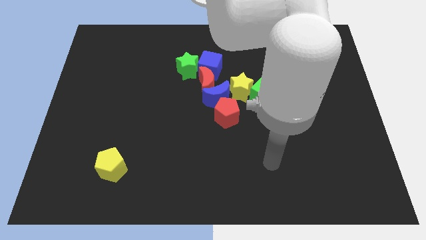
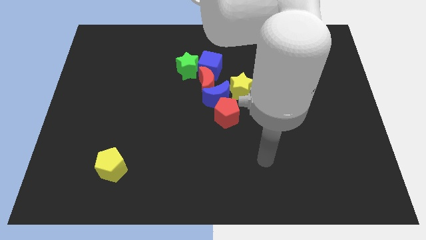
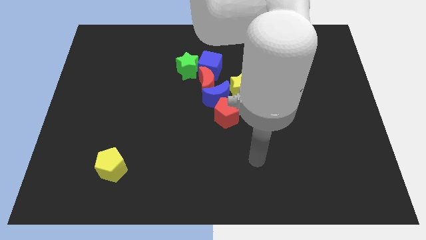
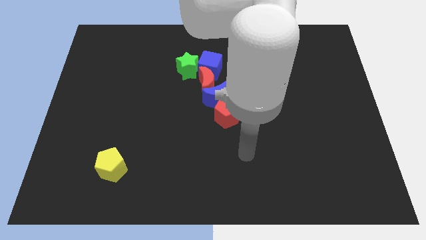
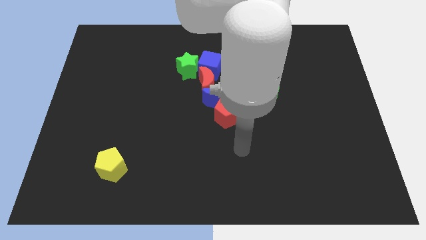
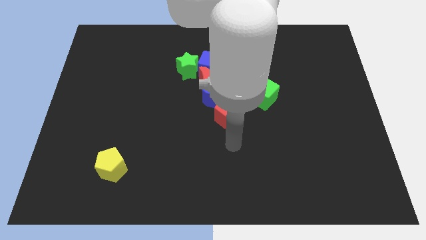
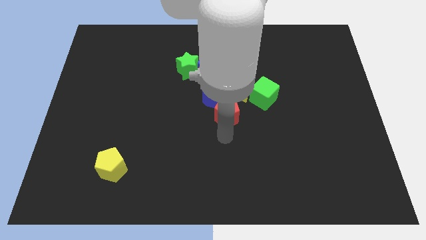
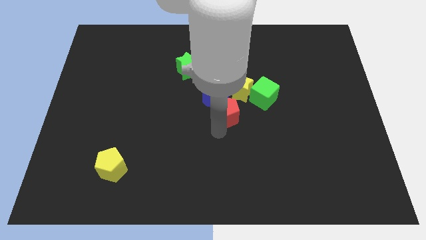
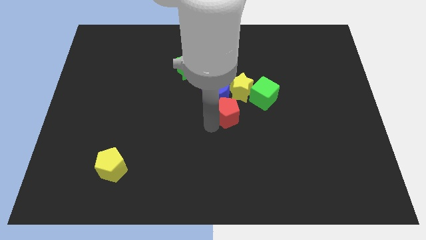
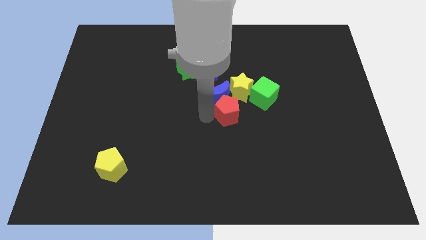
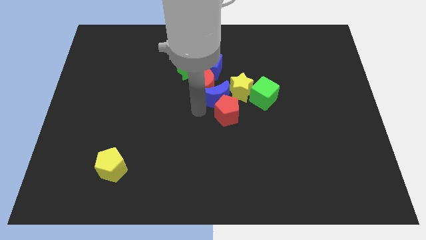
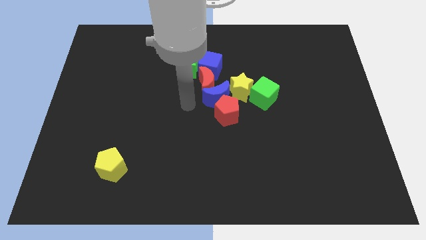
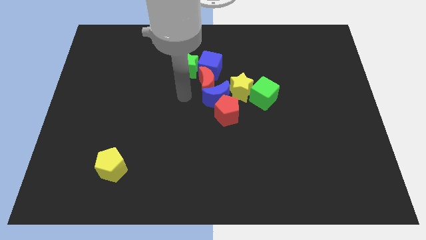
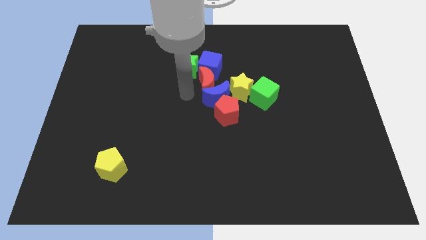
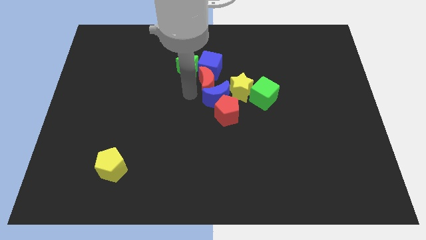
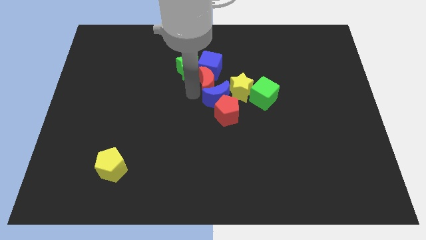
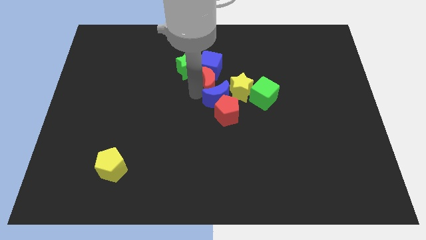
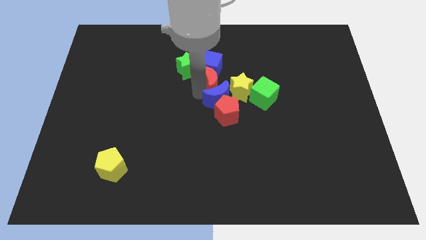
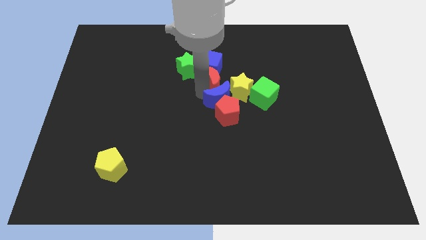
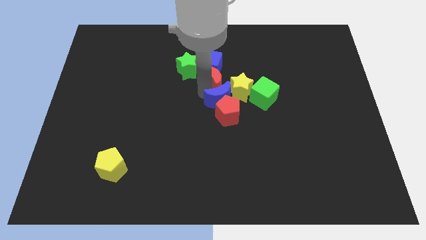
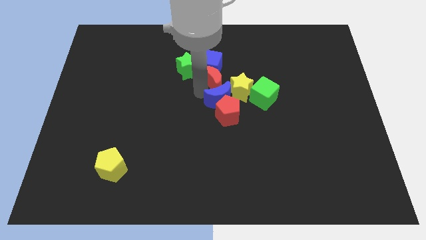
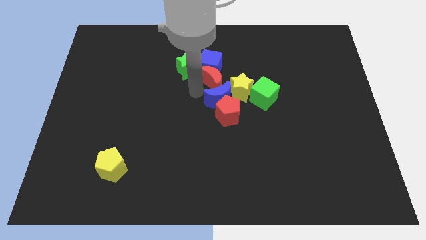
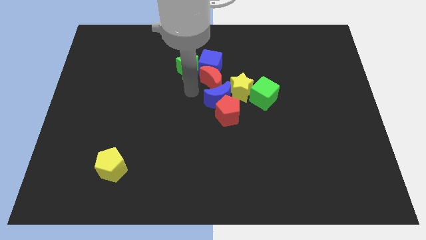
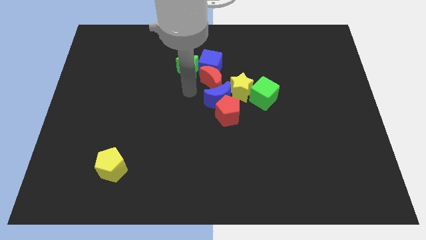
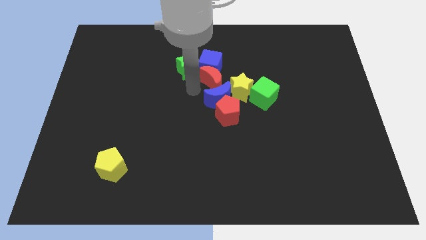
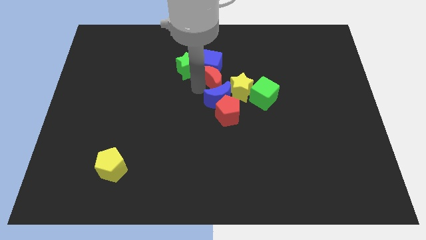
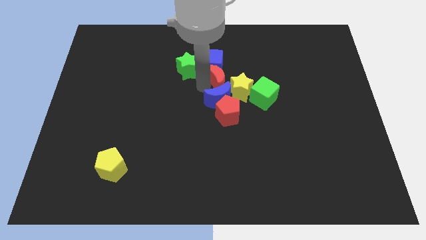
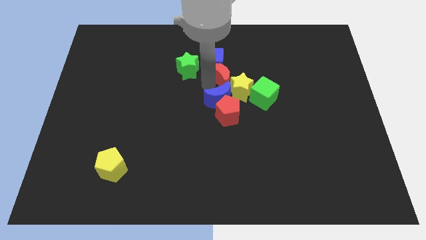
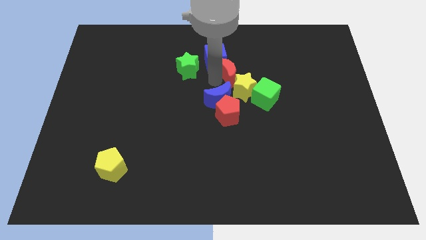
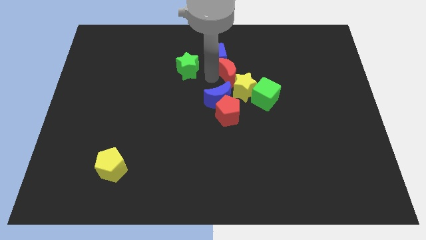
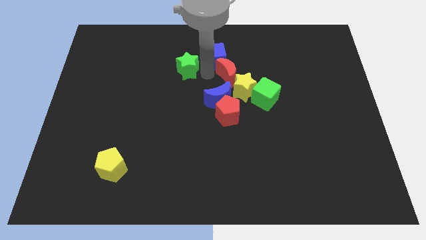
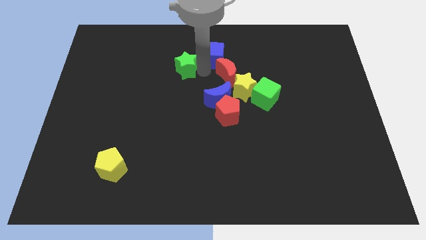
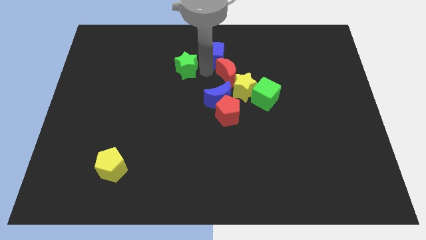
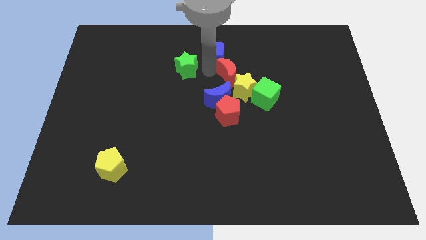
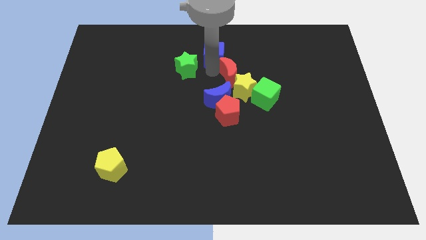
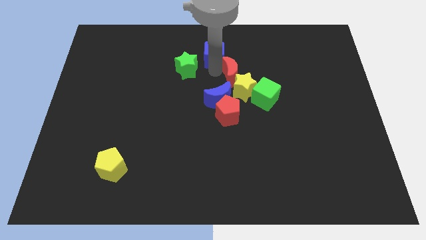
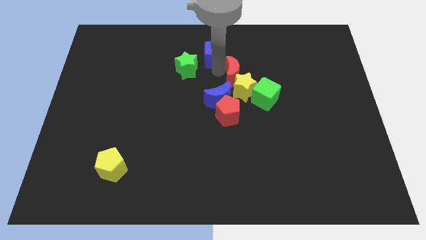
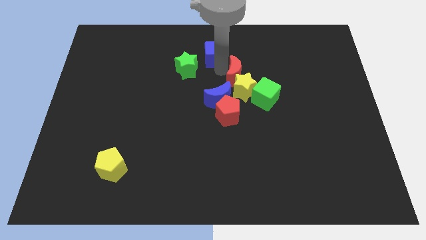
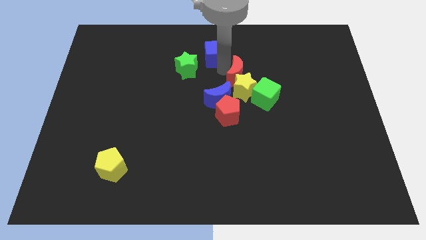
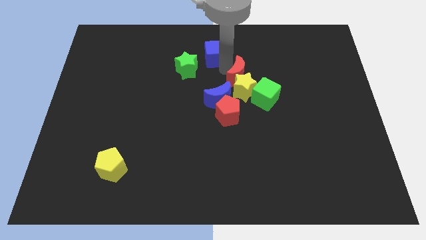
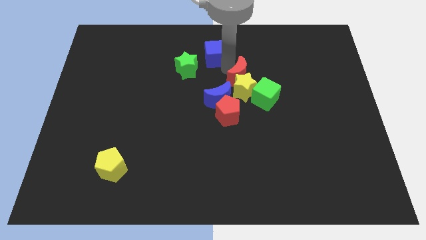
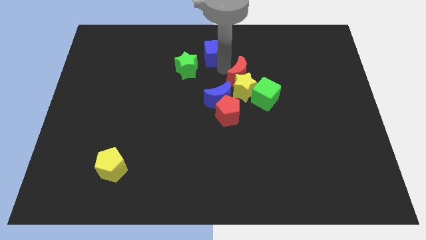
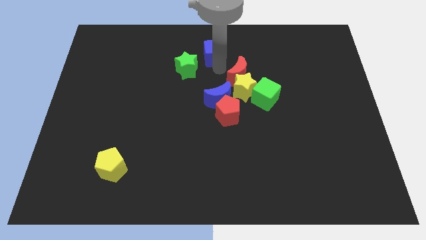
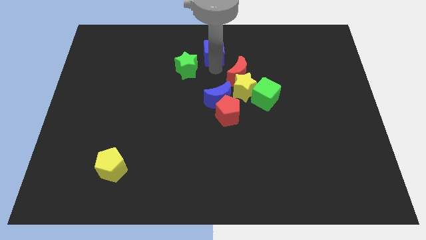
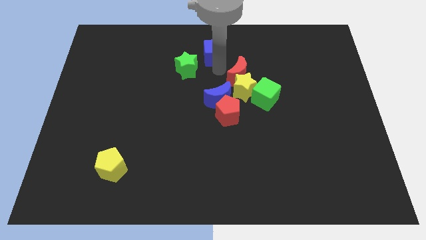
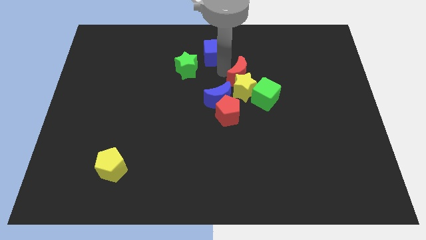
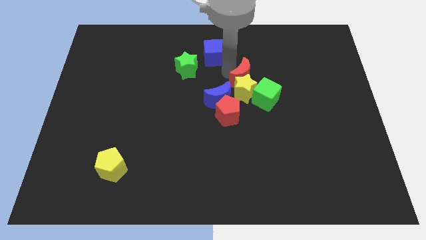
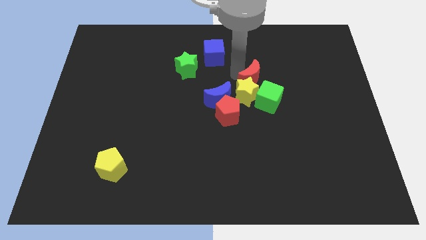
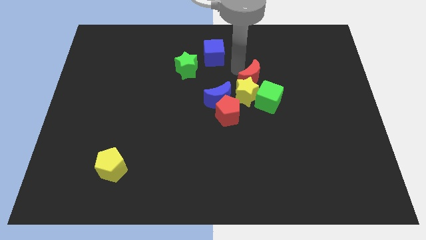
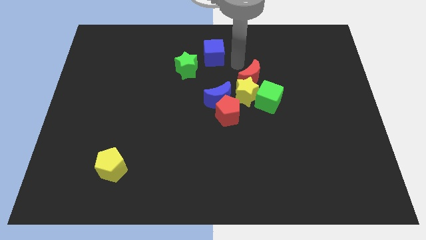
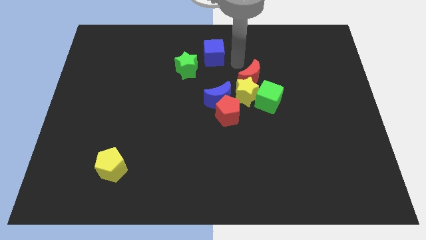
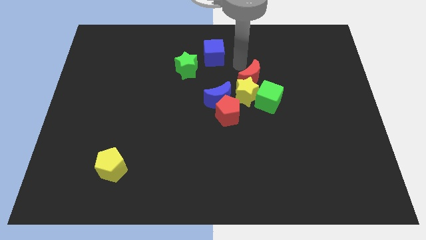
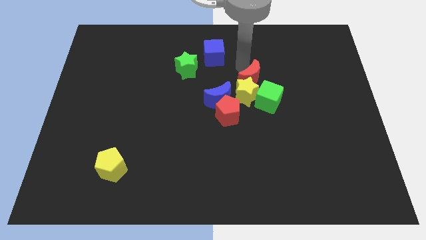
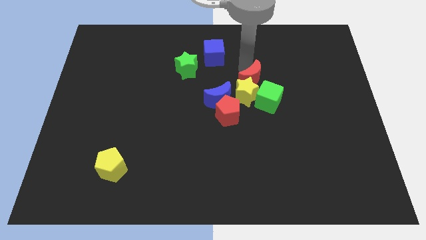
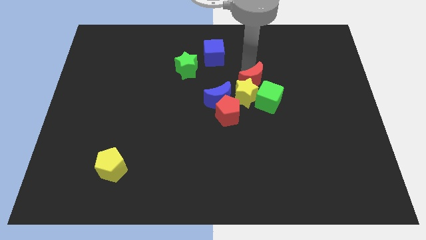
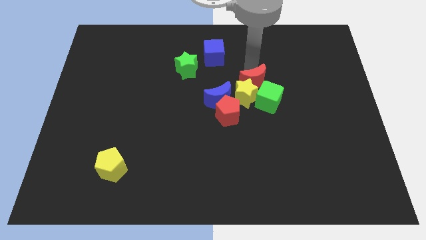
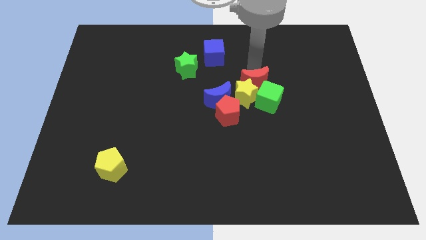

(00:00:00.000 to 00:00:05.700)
put the red moon next to the green cube

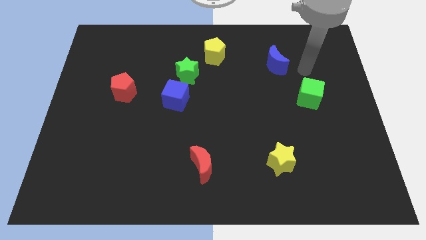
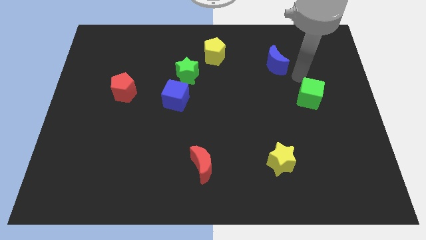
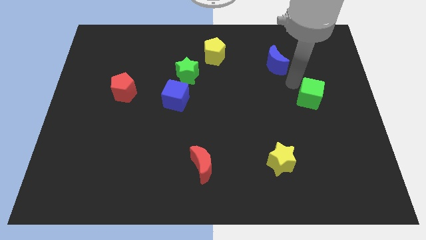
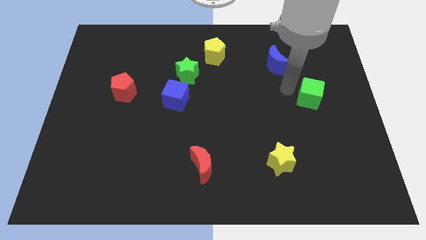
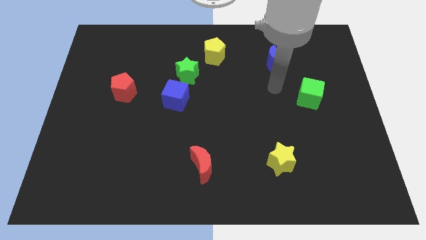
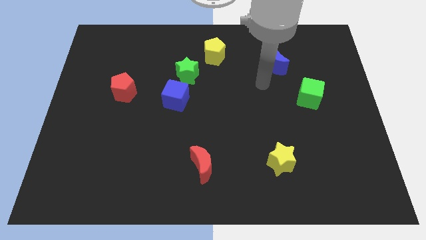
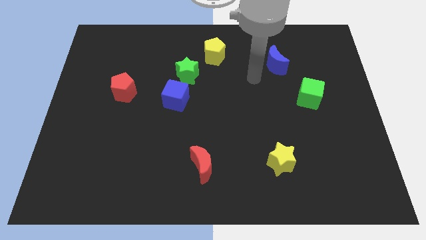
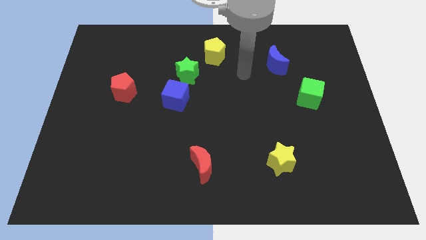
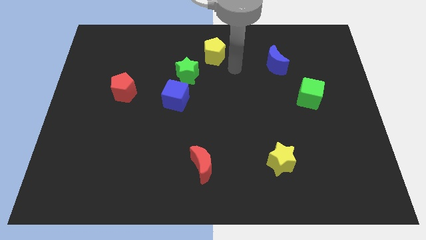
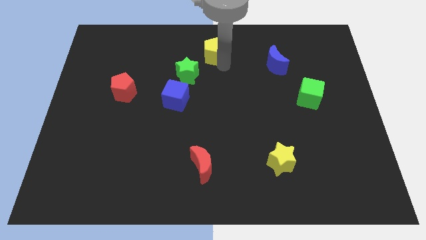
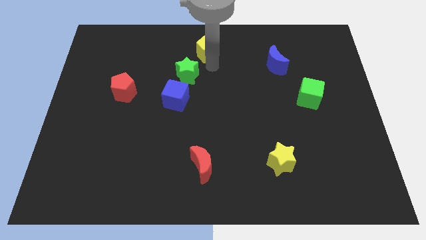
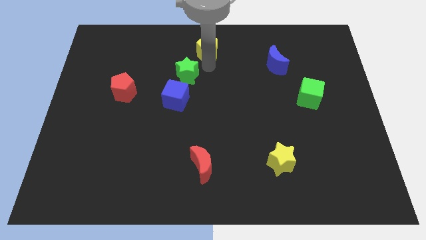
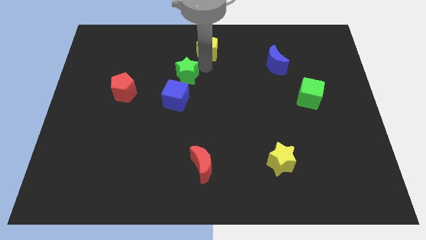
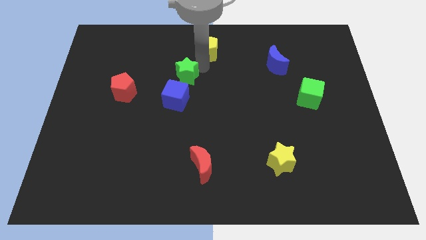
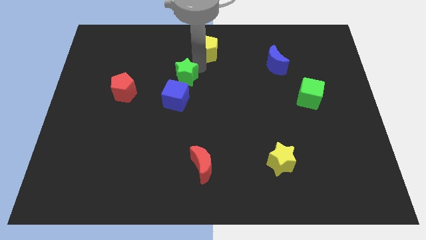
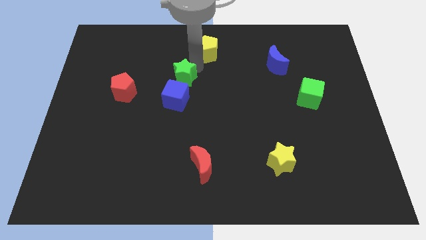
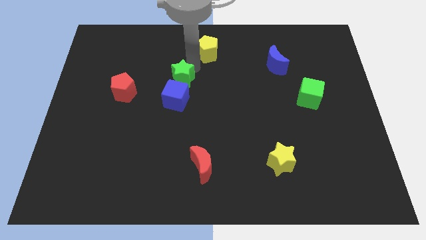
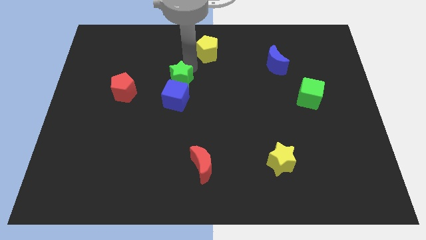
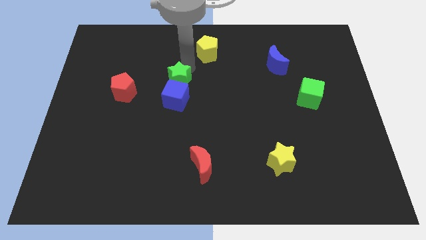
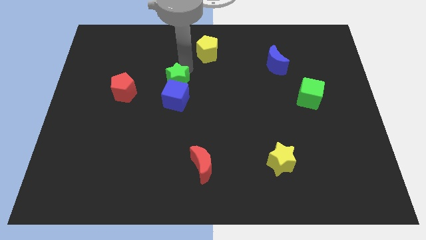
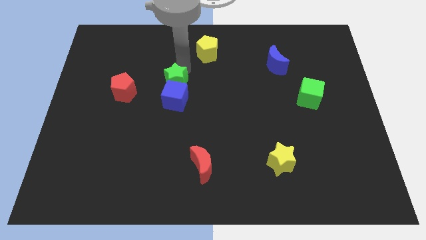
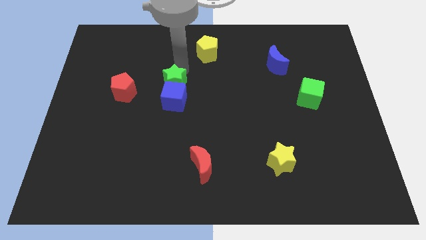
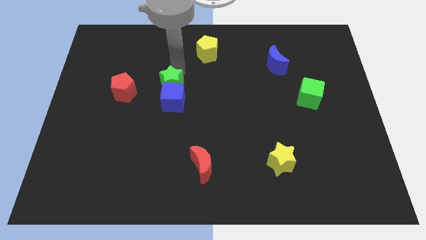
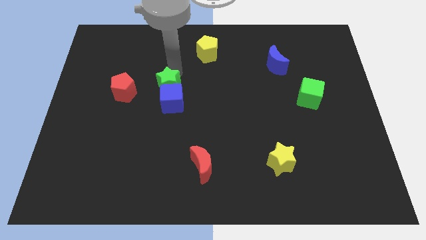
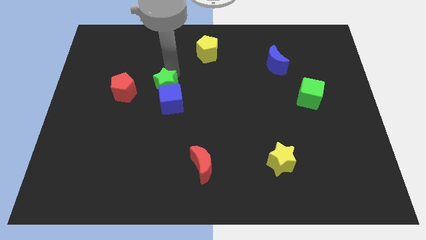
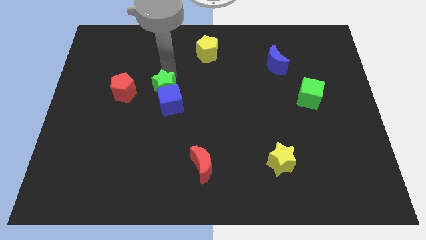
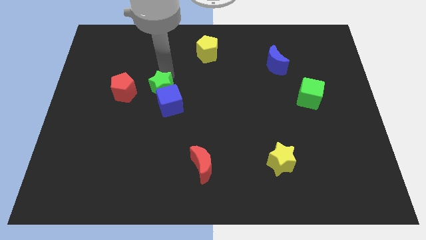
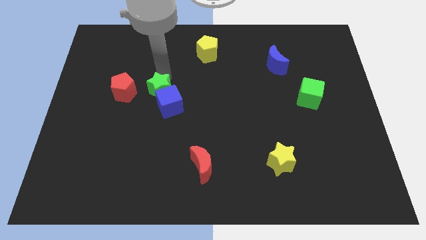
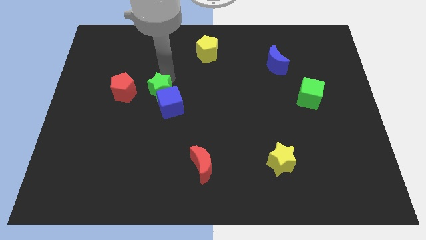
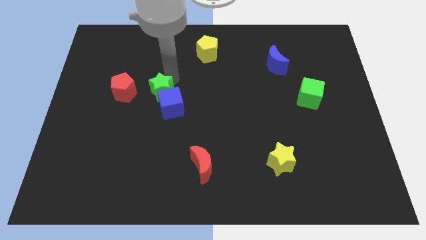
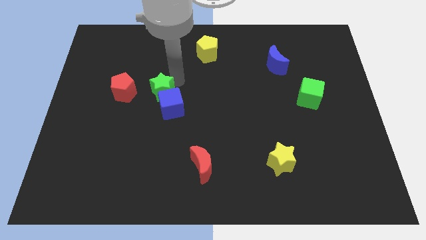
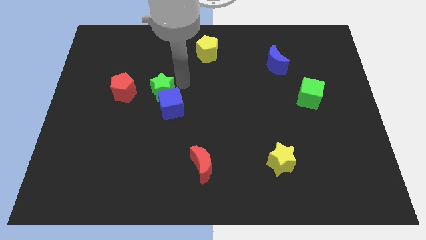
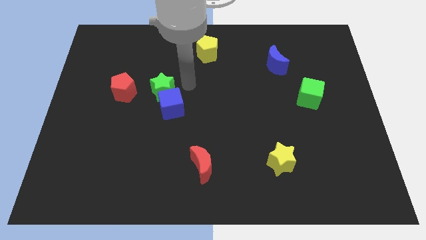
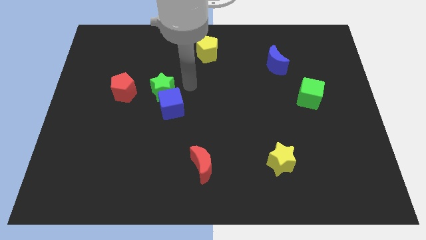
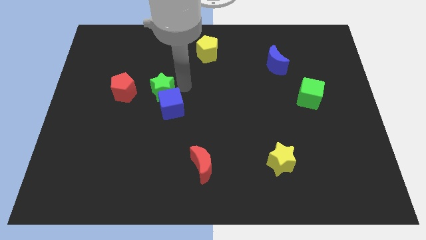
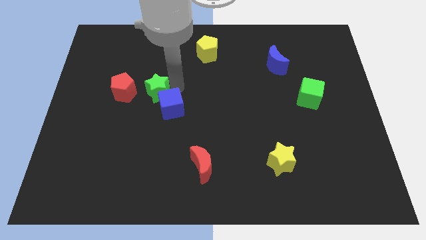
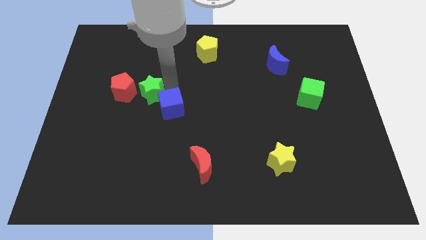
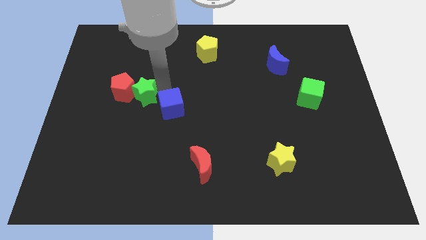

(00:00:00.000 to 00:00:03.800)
move the green star close to the red pentagon
